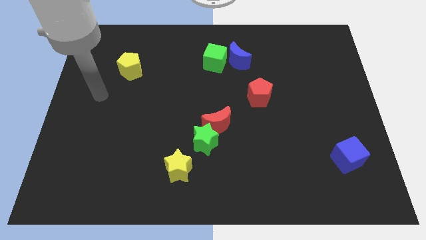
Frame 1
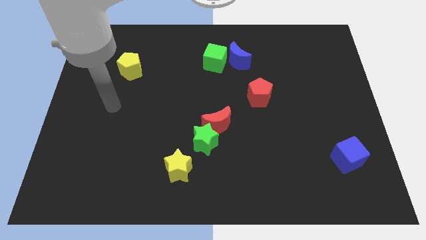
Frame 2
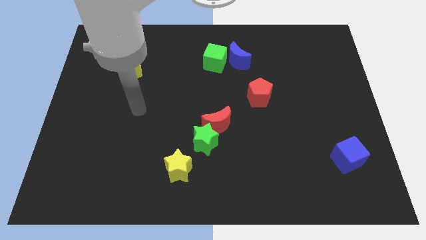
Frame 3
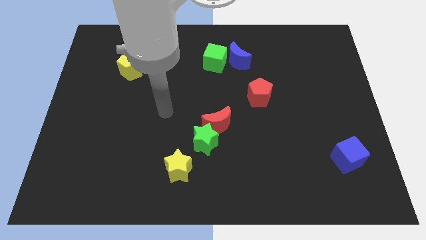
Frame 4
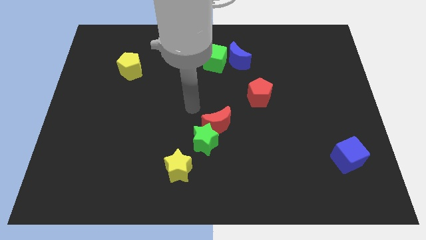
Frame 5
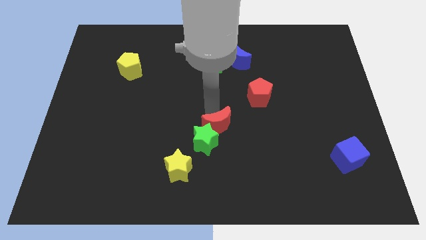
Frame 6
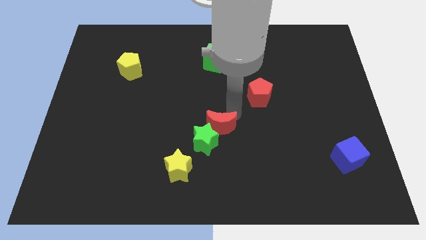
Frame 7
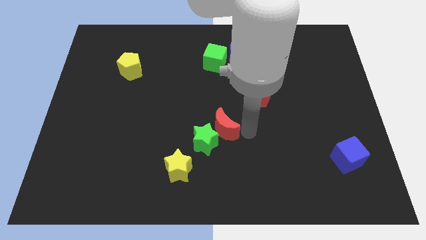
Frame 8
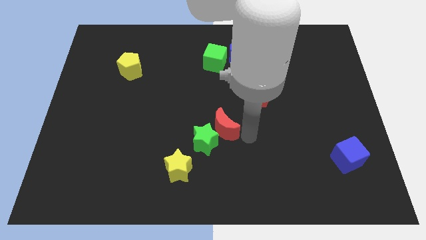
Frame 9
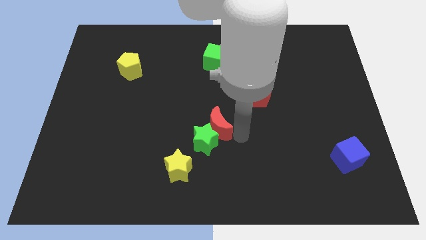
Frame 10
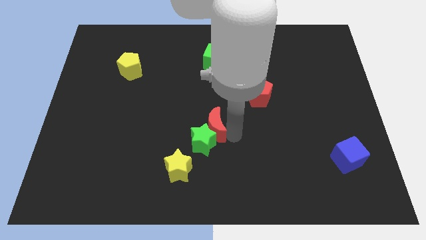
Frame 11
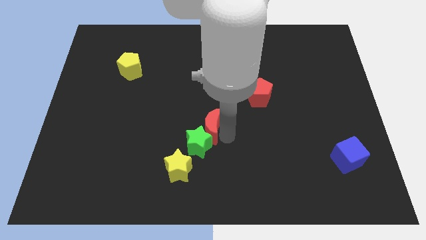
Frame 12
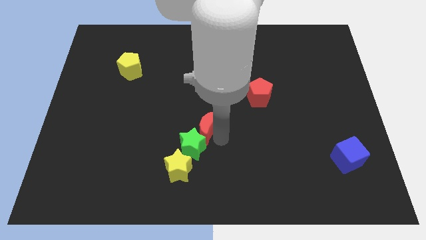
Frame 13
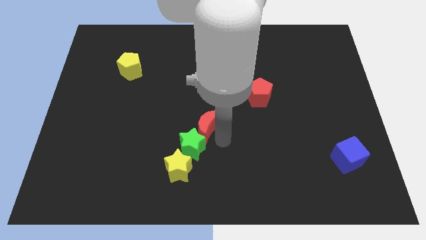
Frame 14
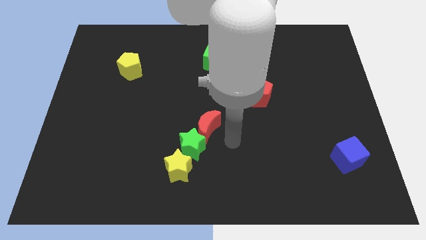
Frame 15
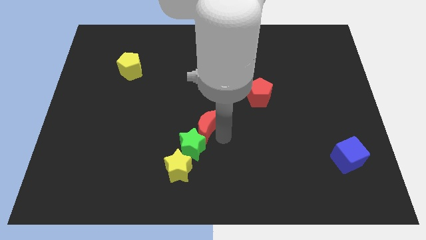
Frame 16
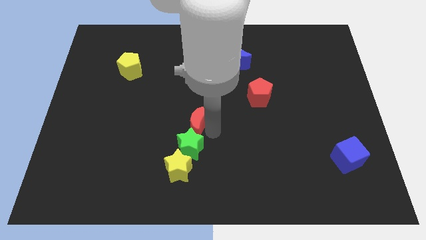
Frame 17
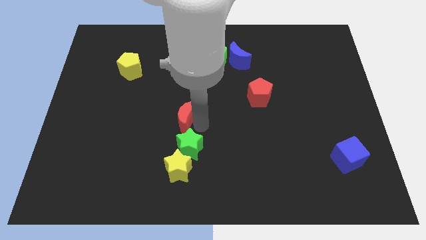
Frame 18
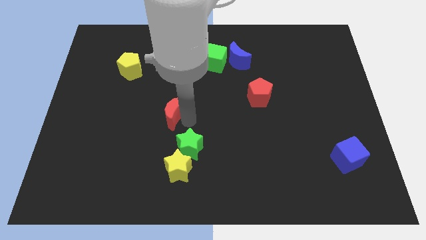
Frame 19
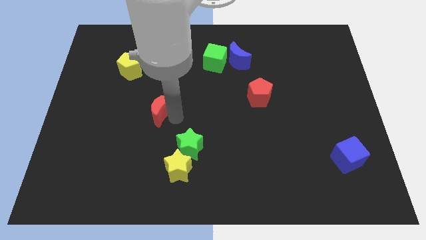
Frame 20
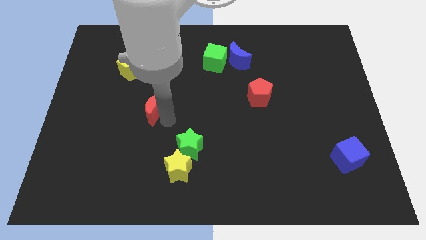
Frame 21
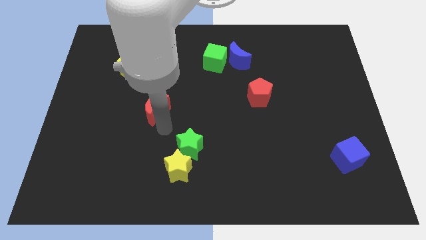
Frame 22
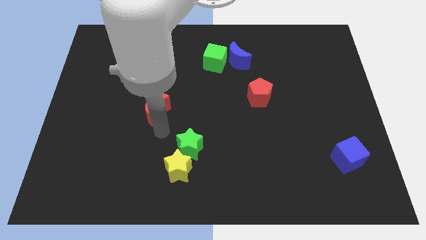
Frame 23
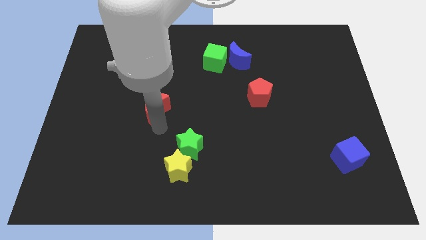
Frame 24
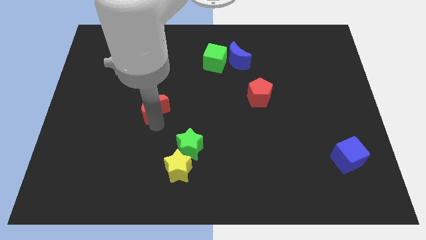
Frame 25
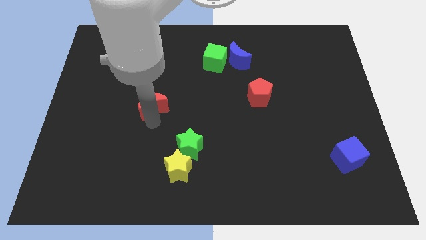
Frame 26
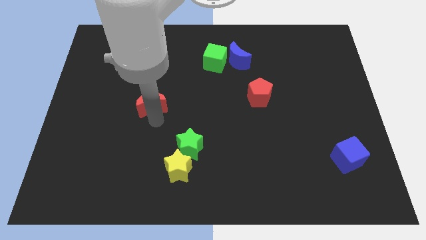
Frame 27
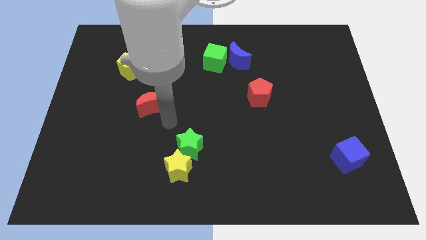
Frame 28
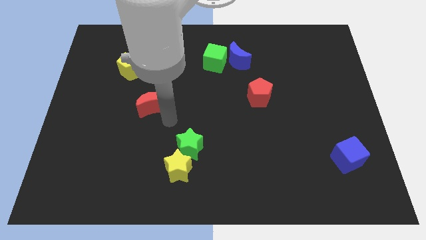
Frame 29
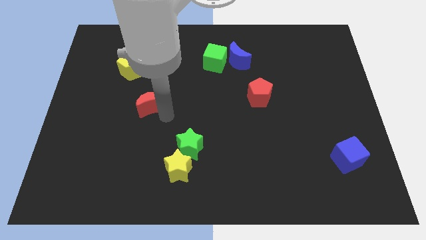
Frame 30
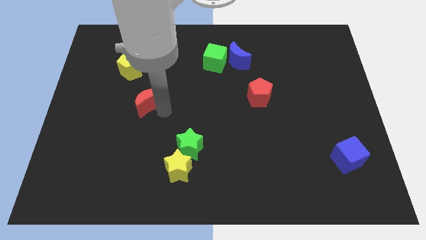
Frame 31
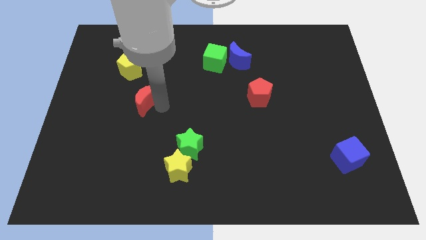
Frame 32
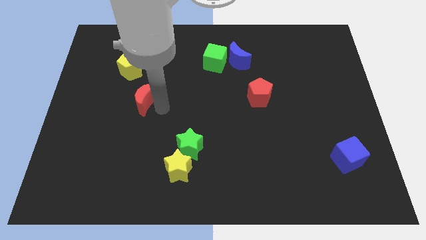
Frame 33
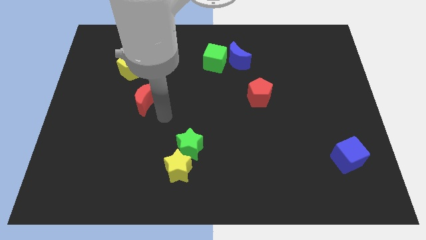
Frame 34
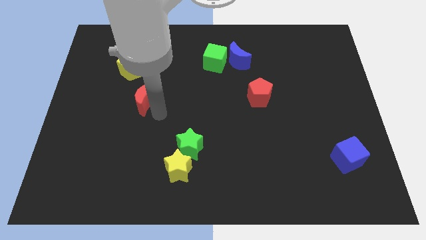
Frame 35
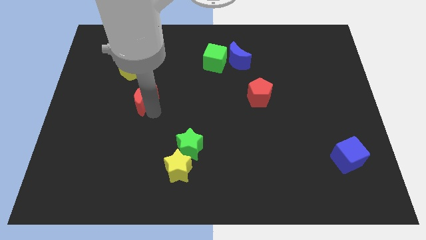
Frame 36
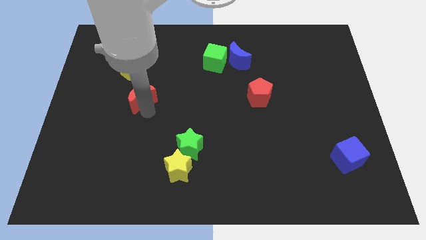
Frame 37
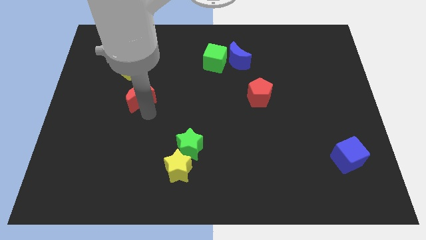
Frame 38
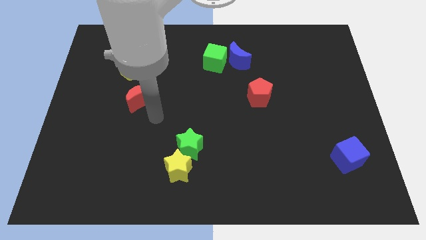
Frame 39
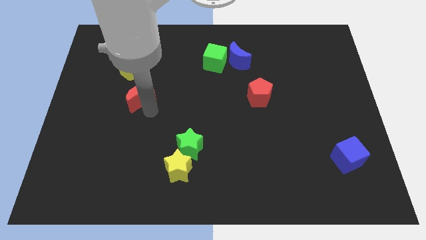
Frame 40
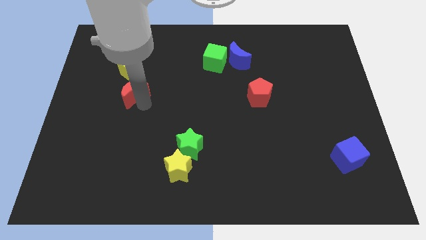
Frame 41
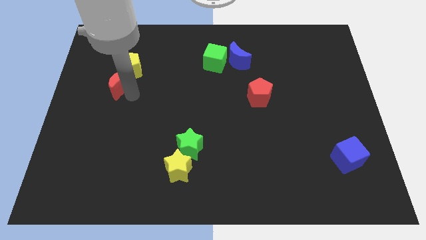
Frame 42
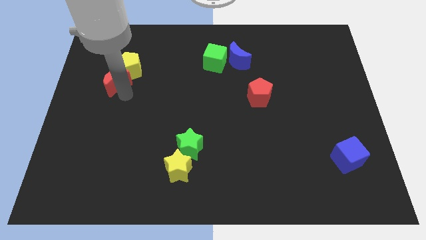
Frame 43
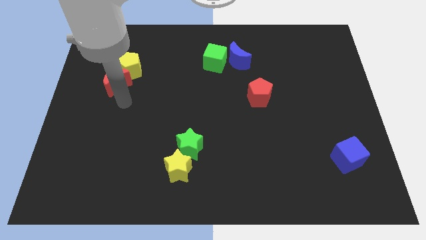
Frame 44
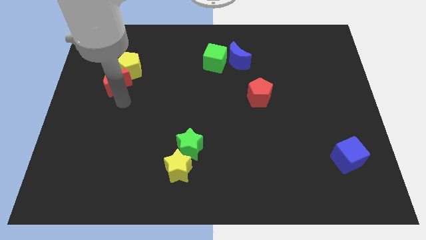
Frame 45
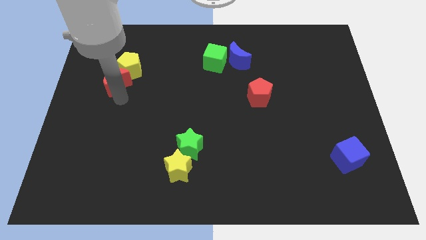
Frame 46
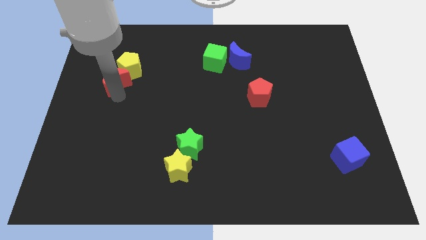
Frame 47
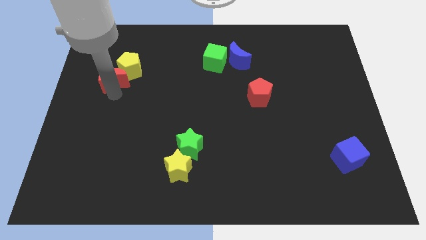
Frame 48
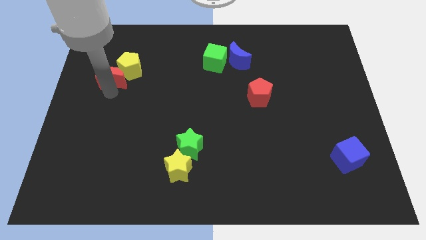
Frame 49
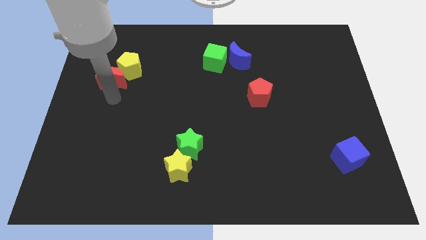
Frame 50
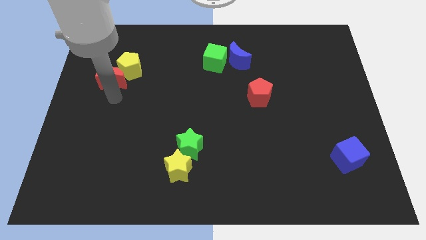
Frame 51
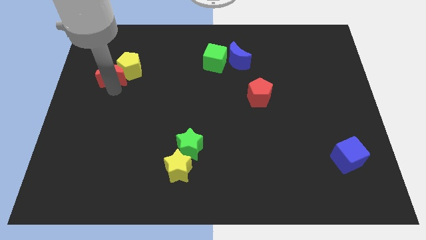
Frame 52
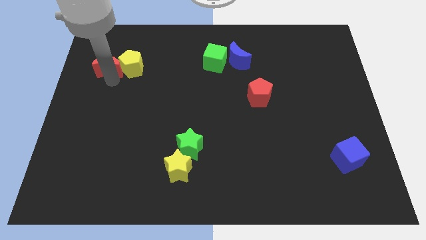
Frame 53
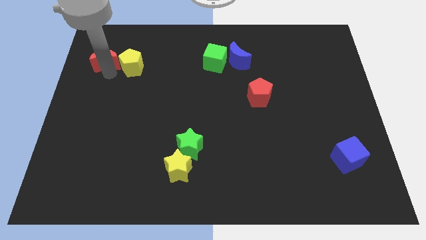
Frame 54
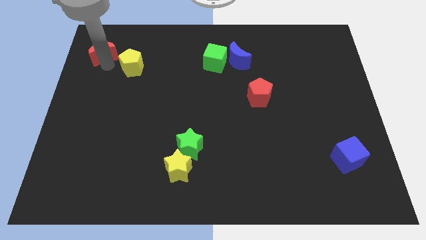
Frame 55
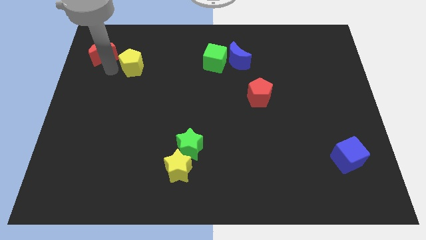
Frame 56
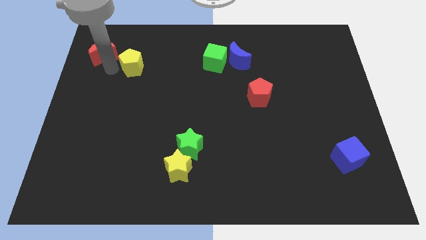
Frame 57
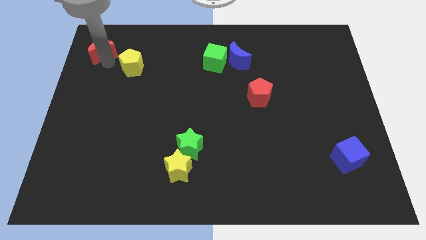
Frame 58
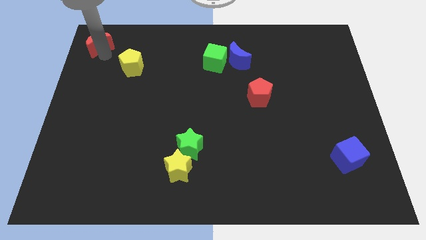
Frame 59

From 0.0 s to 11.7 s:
put the red moon to the top left of the board

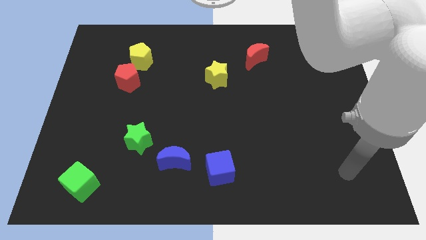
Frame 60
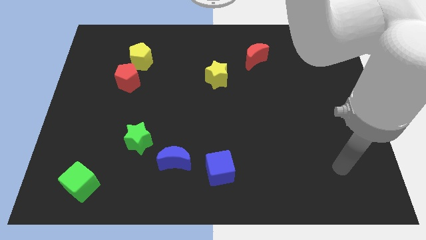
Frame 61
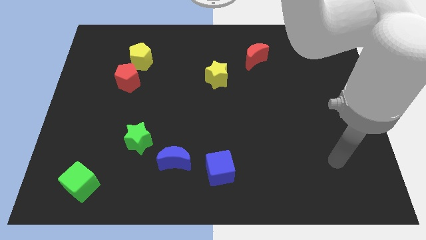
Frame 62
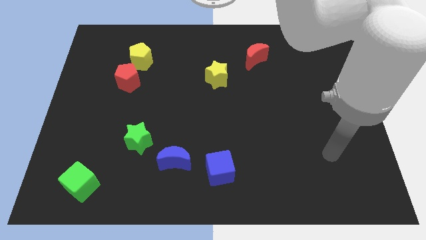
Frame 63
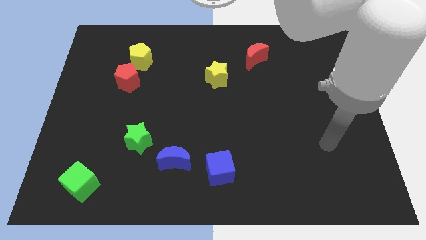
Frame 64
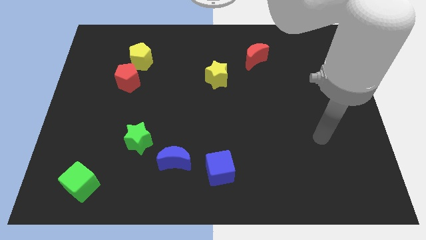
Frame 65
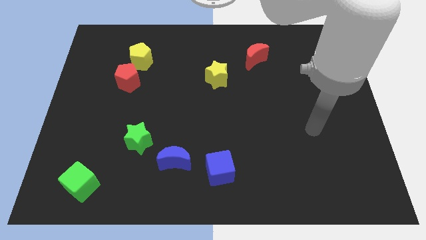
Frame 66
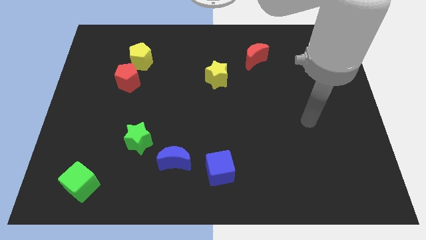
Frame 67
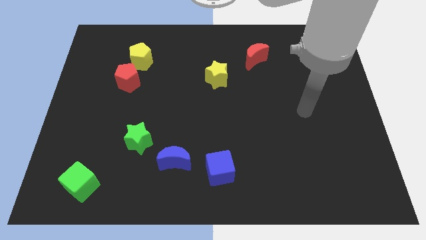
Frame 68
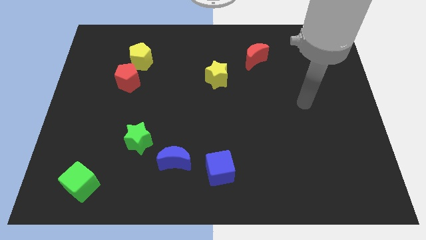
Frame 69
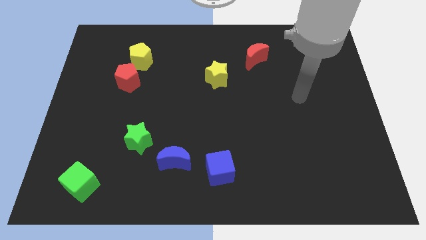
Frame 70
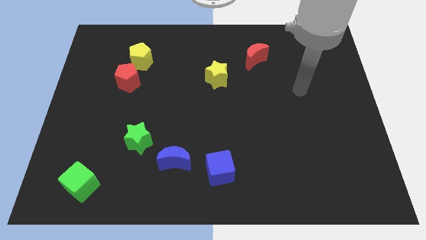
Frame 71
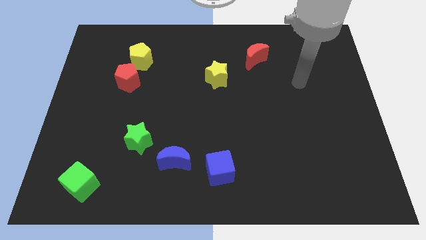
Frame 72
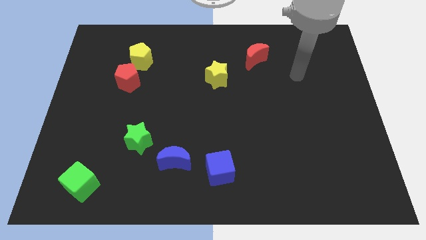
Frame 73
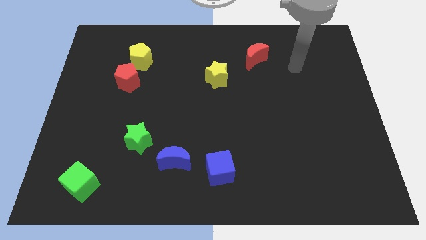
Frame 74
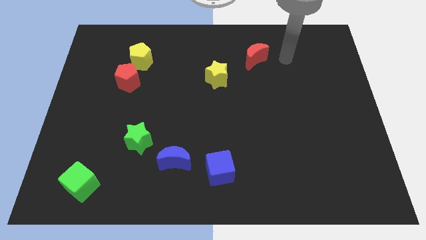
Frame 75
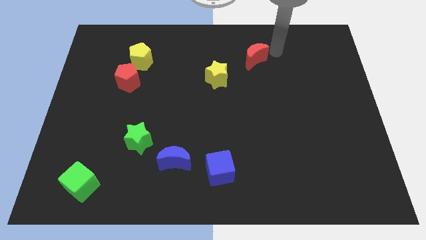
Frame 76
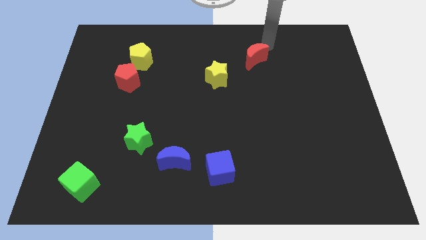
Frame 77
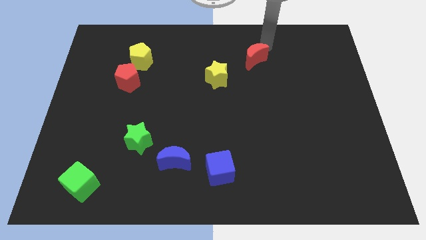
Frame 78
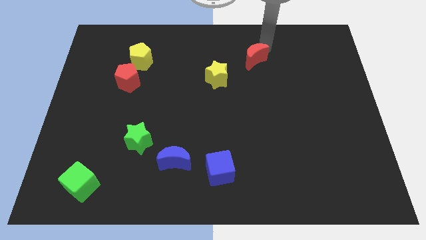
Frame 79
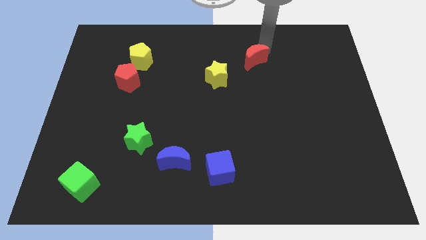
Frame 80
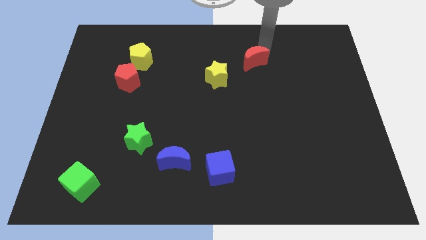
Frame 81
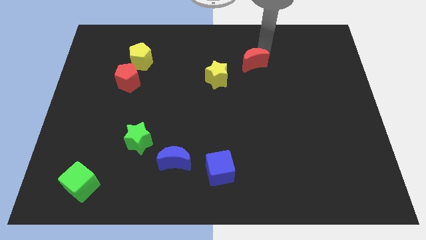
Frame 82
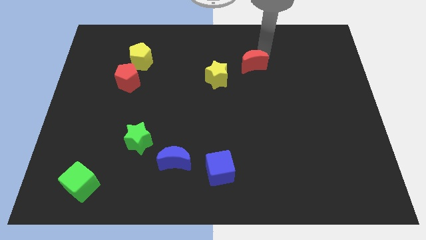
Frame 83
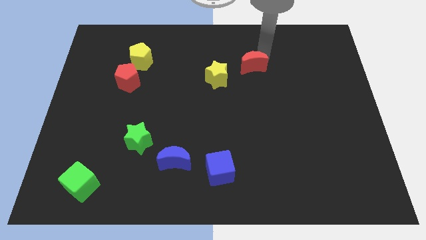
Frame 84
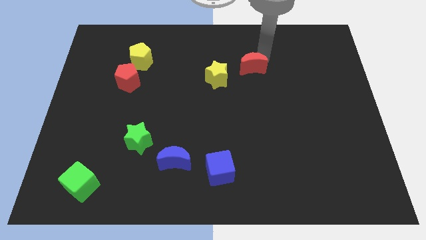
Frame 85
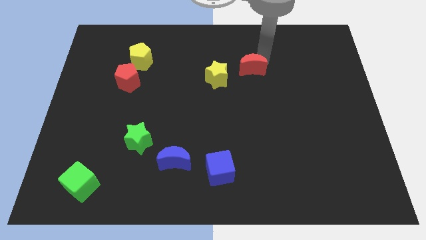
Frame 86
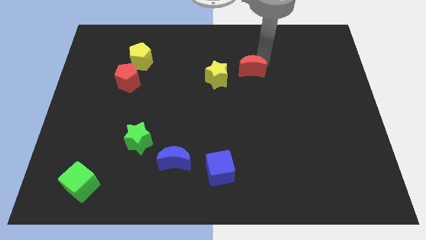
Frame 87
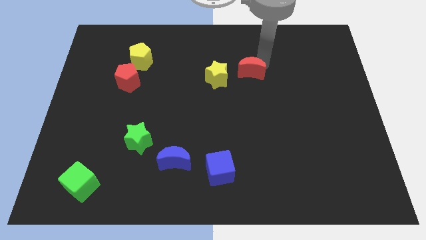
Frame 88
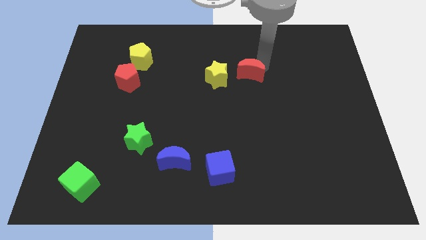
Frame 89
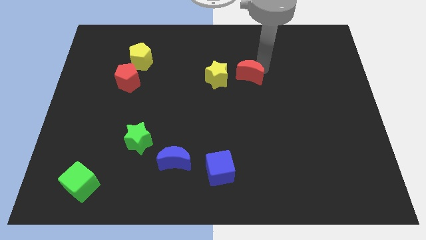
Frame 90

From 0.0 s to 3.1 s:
move the red moon to the center of the board
